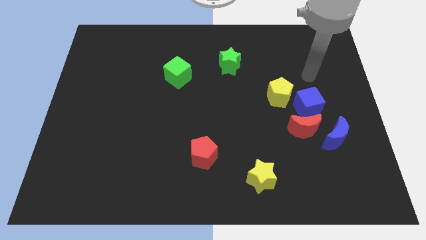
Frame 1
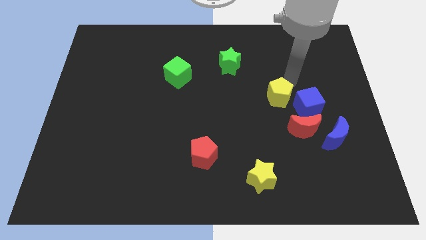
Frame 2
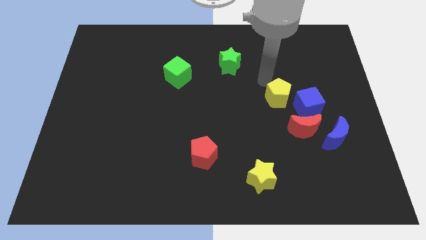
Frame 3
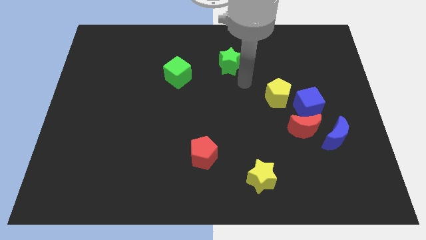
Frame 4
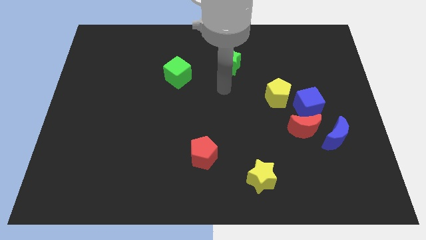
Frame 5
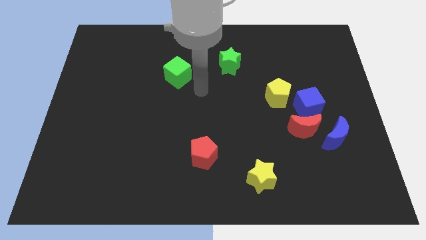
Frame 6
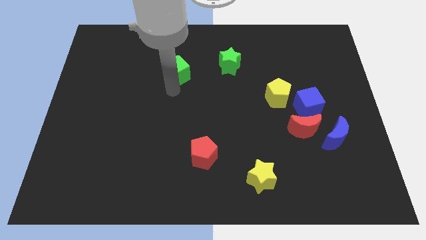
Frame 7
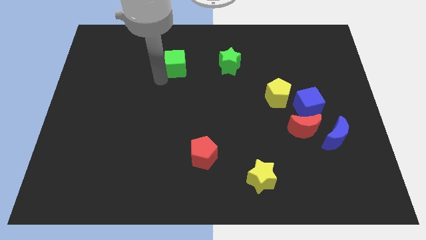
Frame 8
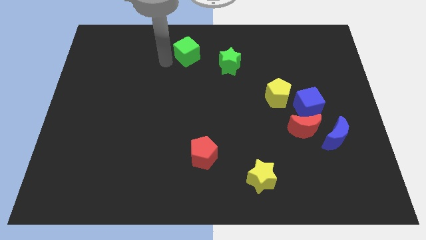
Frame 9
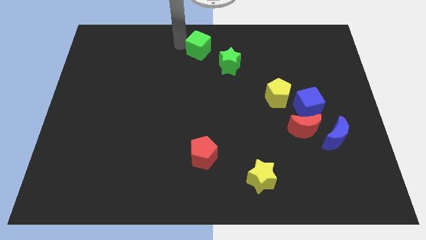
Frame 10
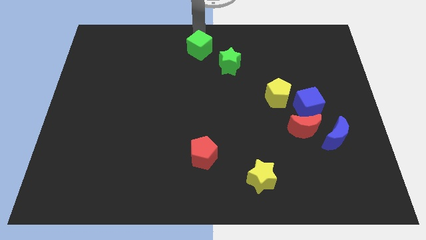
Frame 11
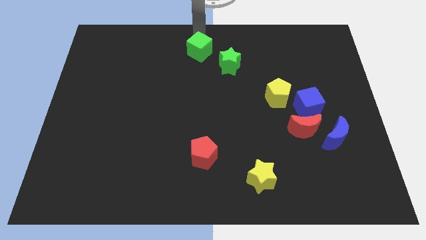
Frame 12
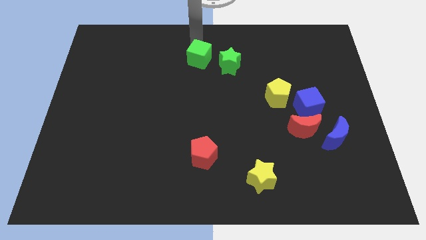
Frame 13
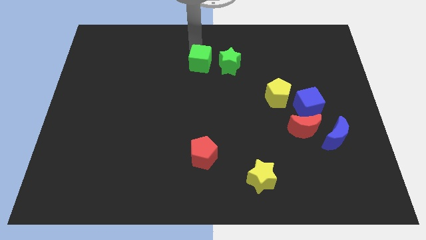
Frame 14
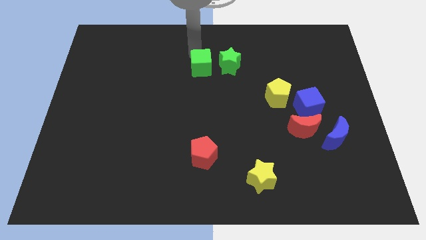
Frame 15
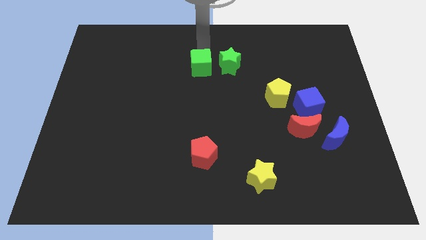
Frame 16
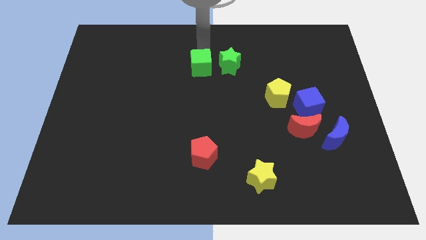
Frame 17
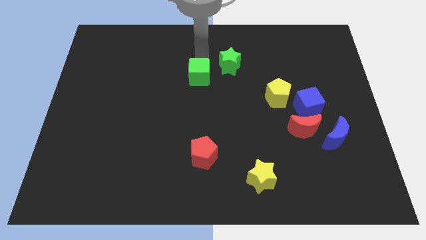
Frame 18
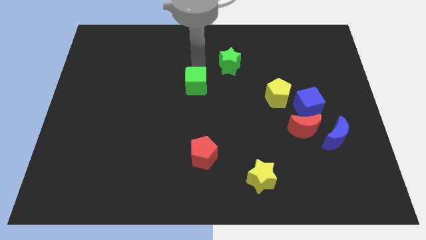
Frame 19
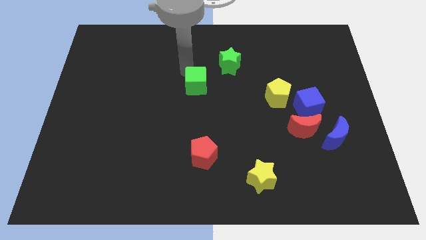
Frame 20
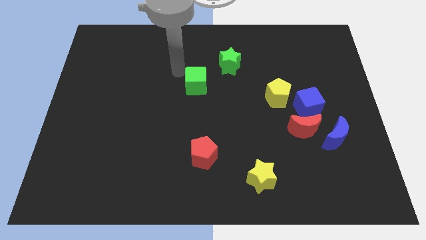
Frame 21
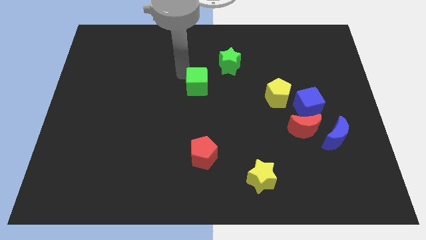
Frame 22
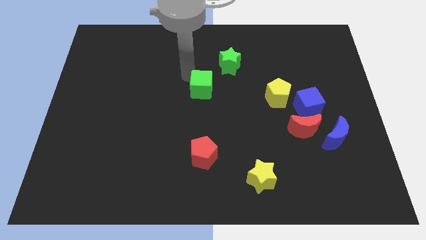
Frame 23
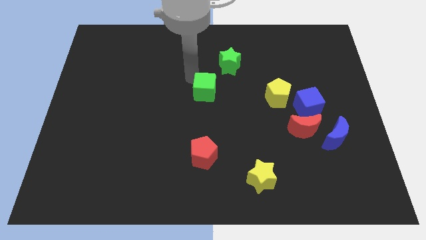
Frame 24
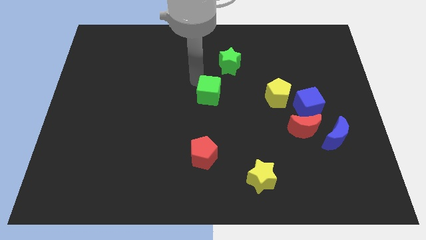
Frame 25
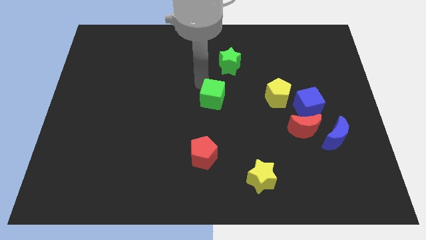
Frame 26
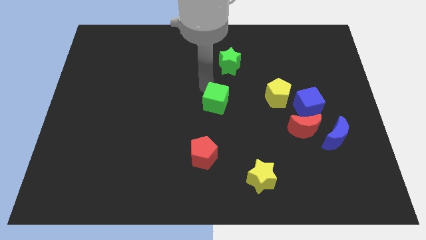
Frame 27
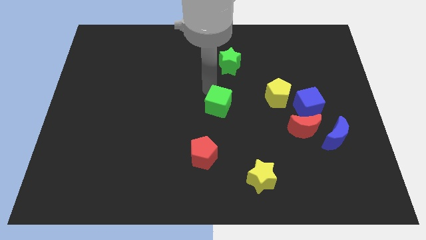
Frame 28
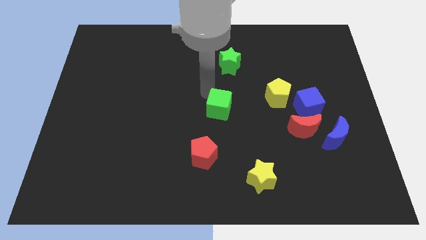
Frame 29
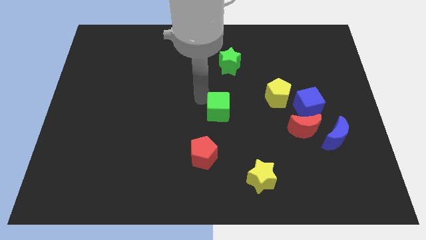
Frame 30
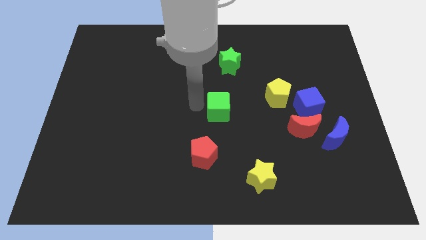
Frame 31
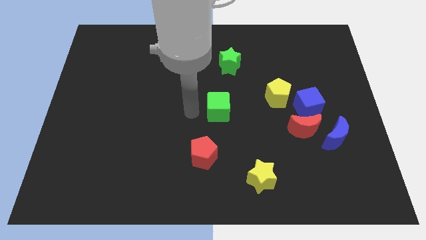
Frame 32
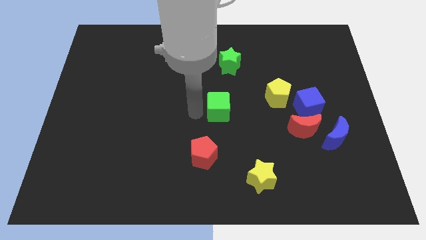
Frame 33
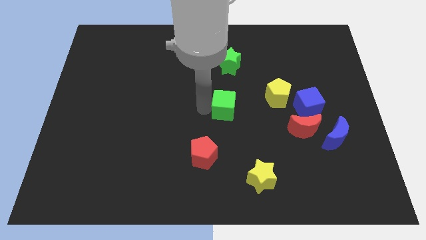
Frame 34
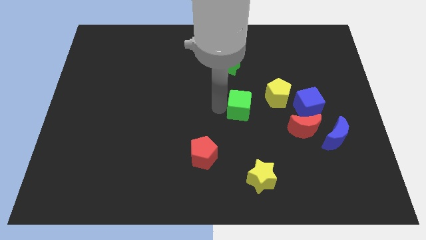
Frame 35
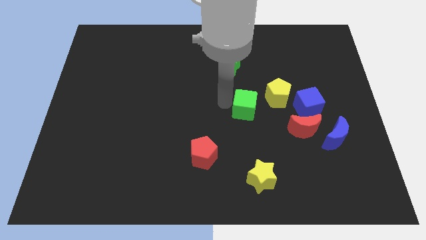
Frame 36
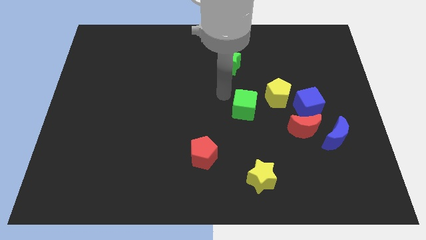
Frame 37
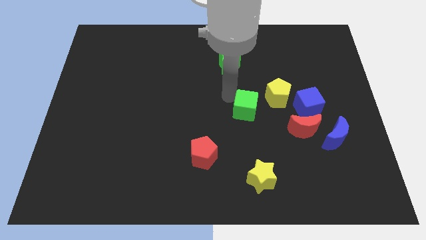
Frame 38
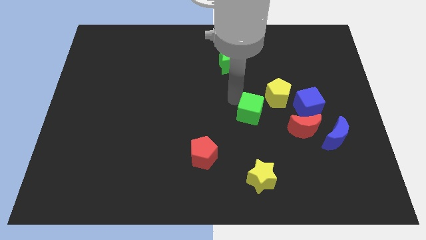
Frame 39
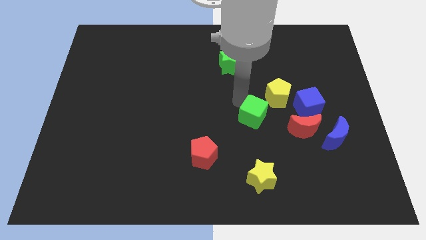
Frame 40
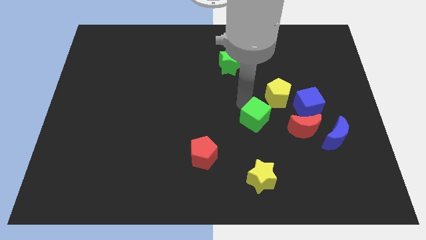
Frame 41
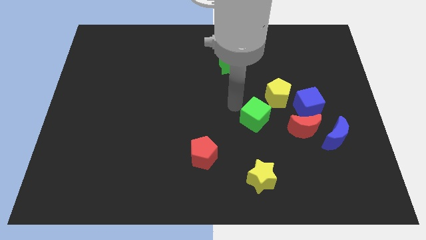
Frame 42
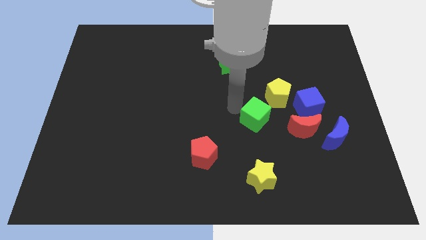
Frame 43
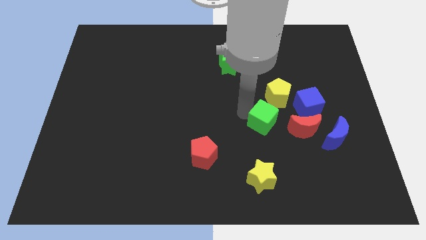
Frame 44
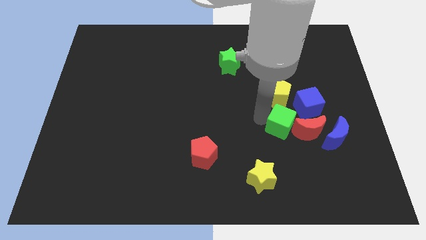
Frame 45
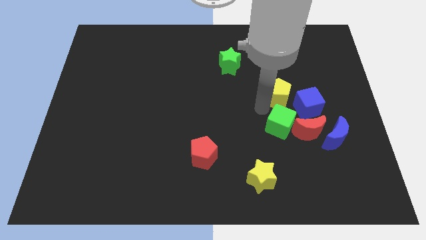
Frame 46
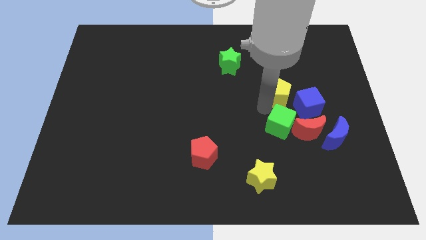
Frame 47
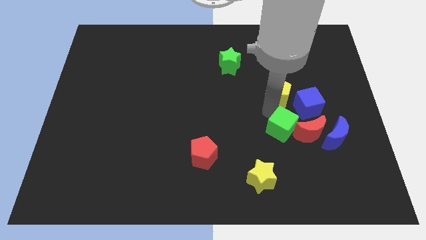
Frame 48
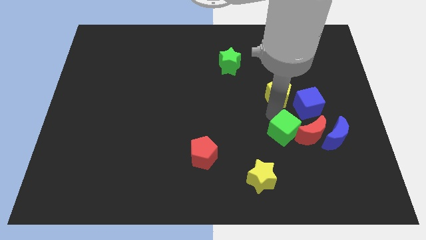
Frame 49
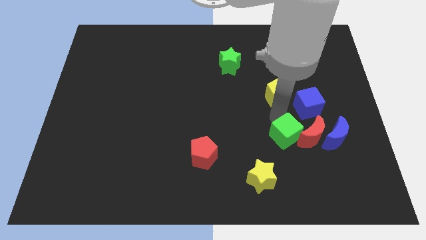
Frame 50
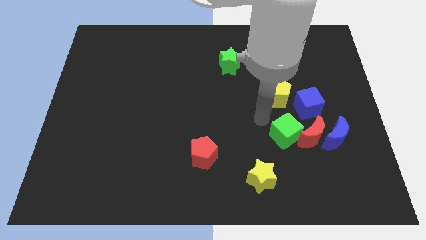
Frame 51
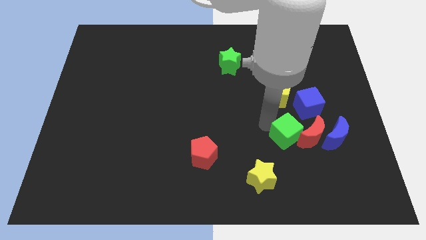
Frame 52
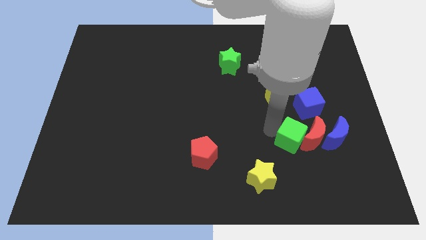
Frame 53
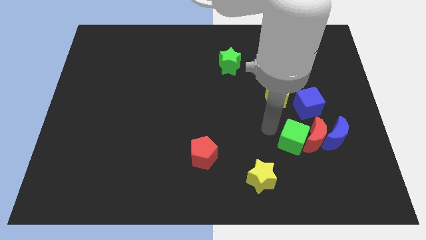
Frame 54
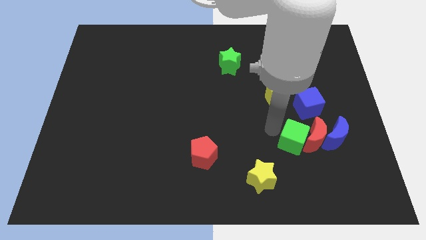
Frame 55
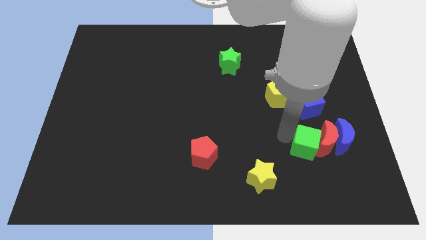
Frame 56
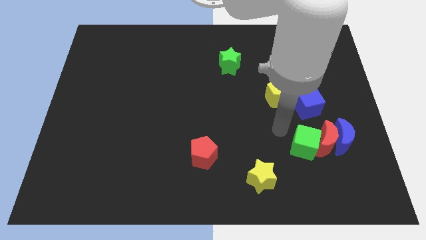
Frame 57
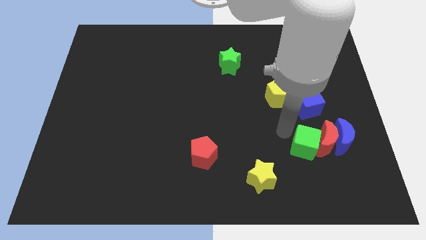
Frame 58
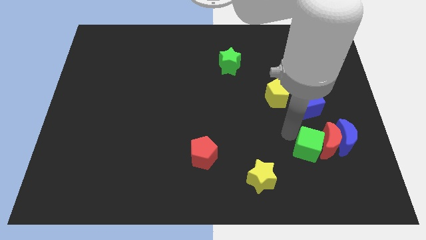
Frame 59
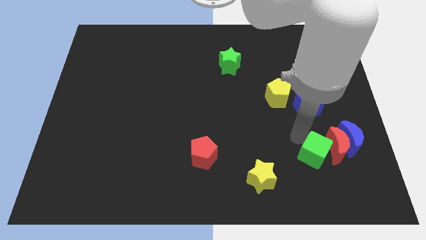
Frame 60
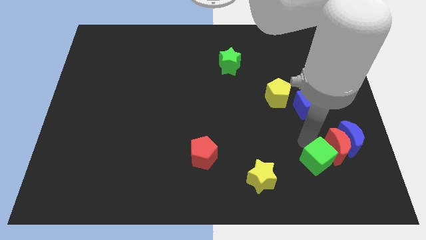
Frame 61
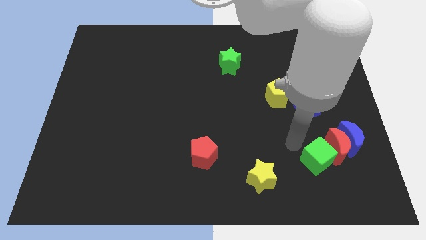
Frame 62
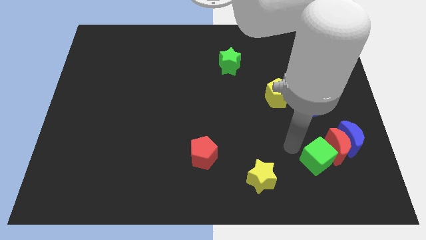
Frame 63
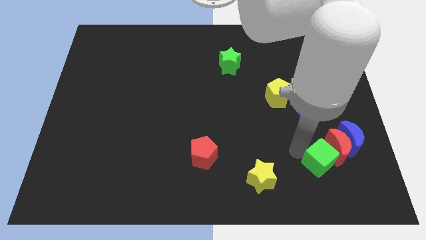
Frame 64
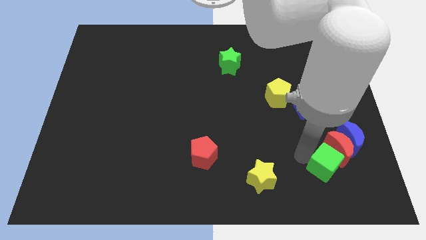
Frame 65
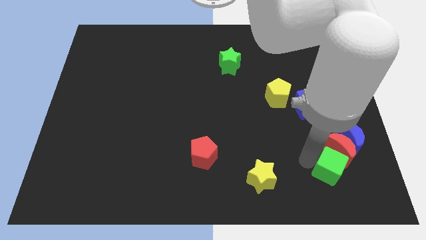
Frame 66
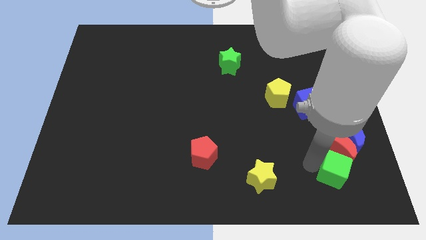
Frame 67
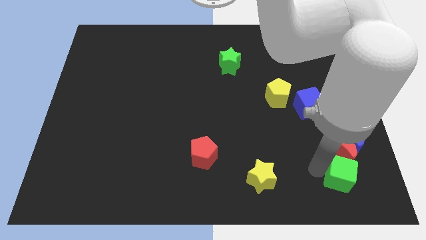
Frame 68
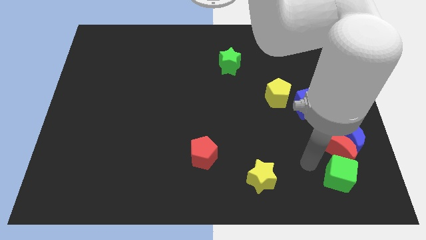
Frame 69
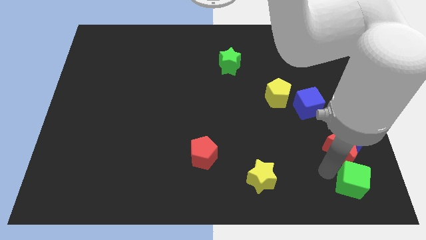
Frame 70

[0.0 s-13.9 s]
put the green cube to the bottom right corner
